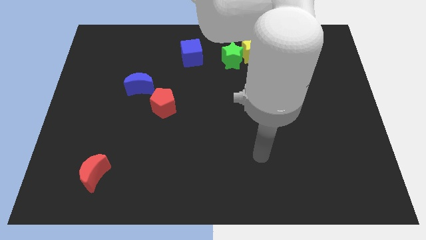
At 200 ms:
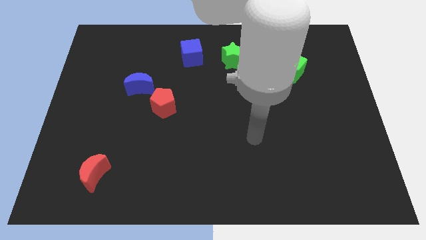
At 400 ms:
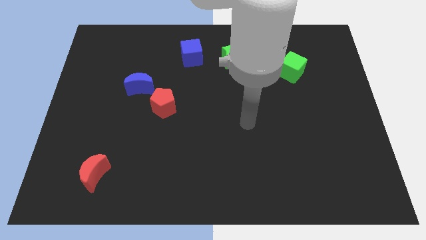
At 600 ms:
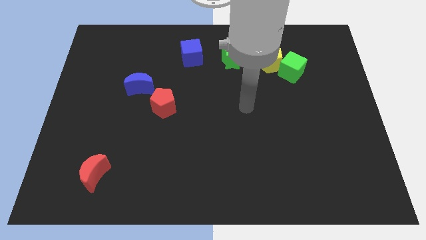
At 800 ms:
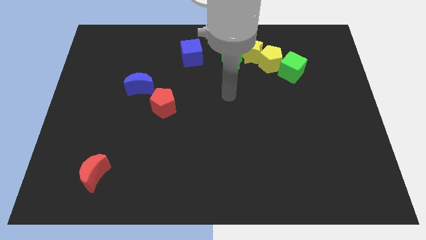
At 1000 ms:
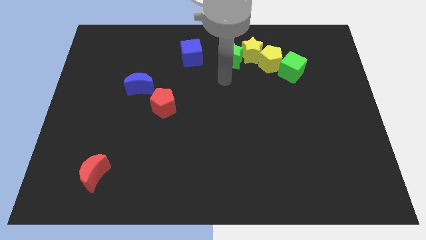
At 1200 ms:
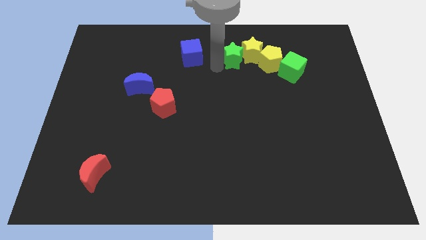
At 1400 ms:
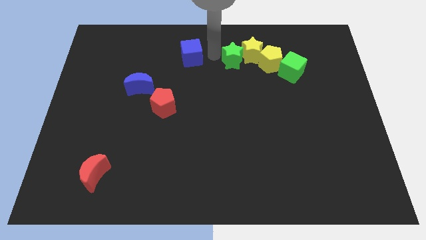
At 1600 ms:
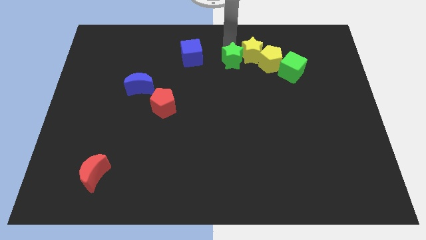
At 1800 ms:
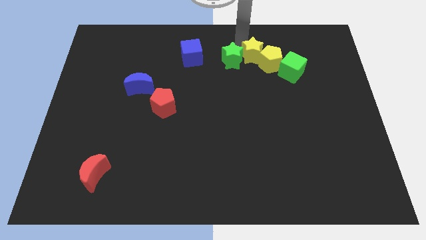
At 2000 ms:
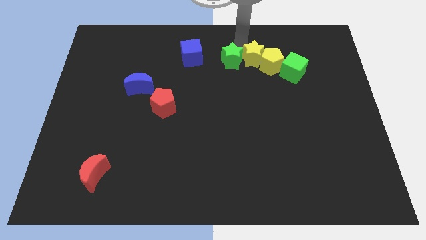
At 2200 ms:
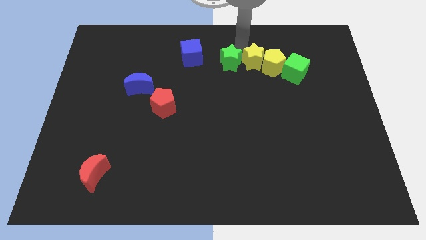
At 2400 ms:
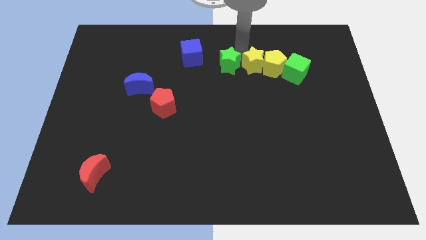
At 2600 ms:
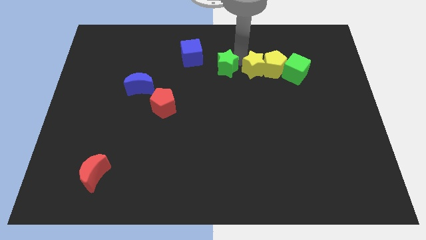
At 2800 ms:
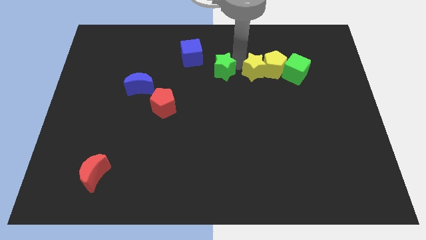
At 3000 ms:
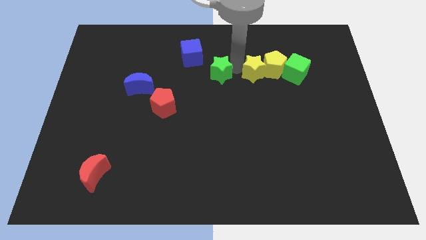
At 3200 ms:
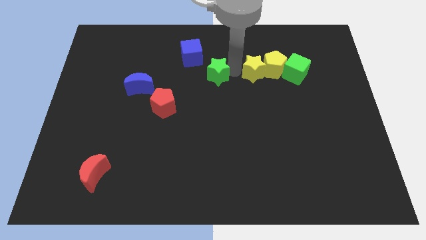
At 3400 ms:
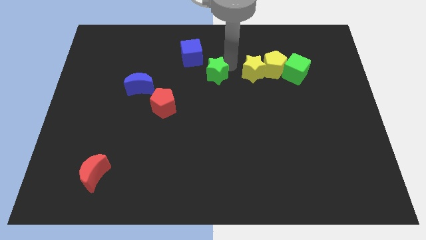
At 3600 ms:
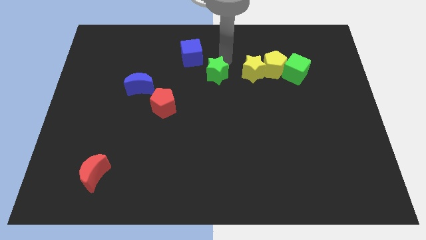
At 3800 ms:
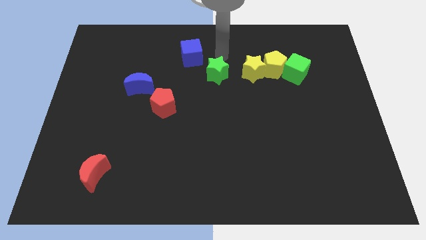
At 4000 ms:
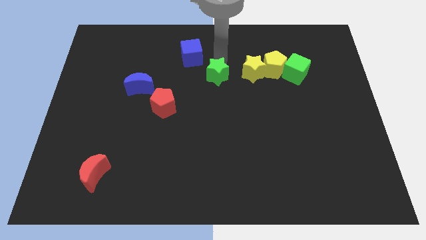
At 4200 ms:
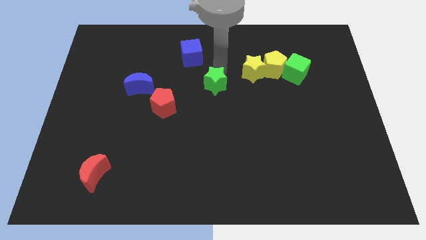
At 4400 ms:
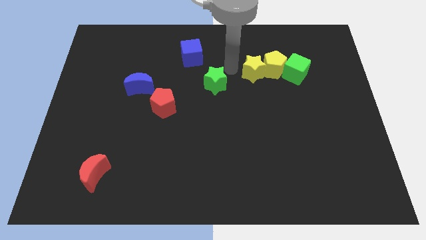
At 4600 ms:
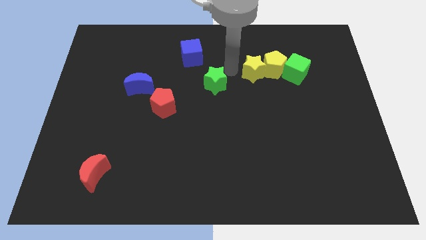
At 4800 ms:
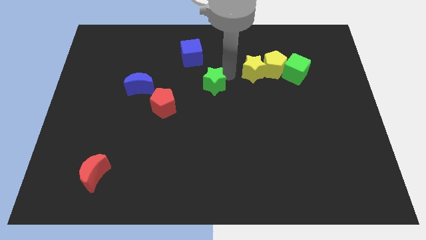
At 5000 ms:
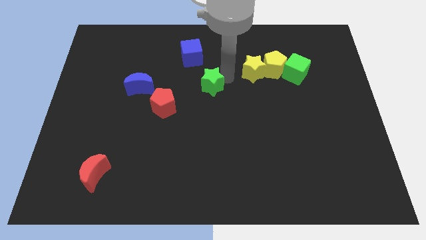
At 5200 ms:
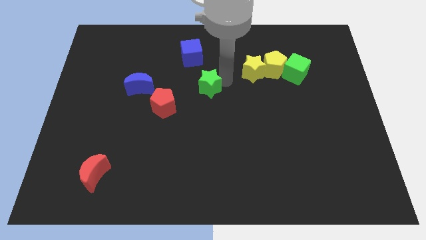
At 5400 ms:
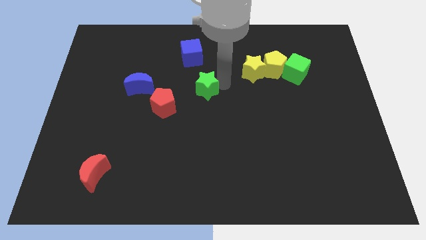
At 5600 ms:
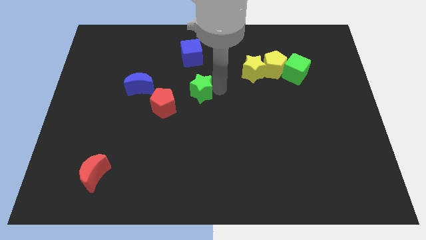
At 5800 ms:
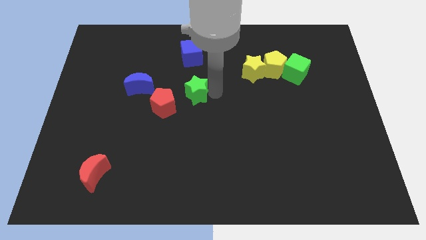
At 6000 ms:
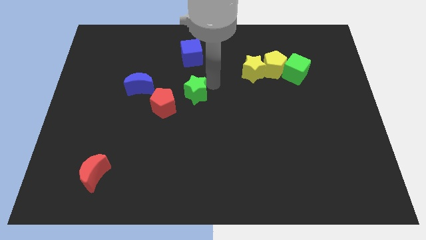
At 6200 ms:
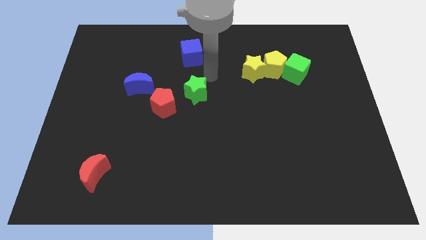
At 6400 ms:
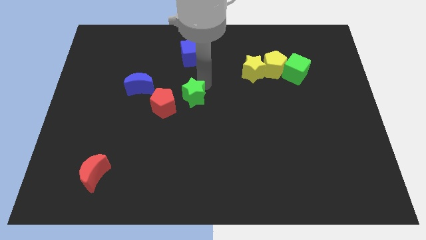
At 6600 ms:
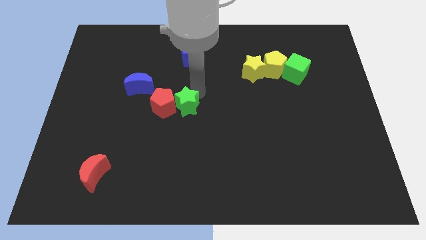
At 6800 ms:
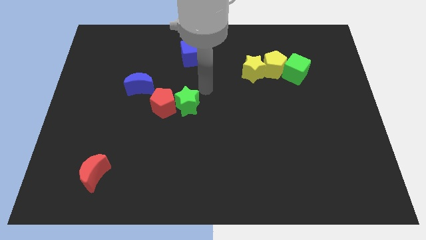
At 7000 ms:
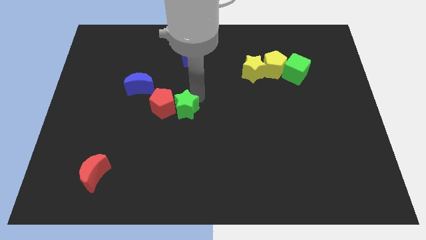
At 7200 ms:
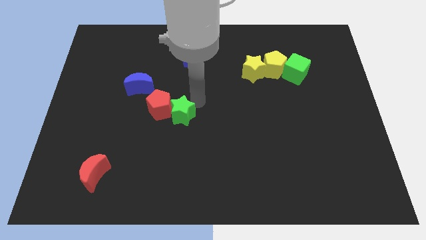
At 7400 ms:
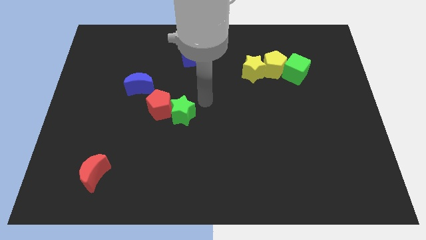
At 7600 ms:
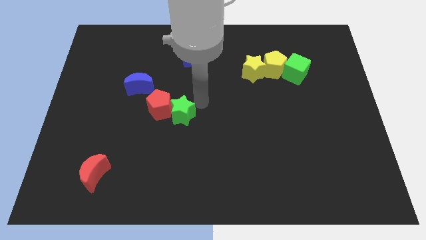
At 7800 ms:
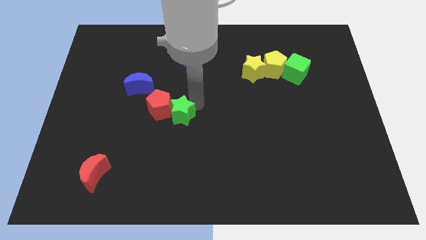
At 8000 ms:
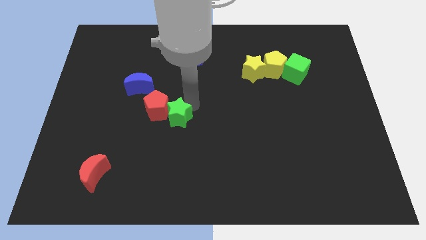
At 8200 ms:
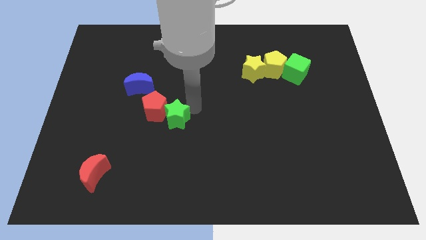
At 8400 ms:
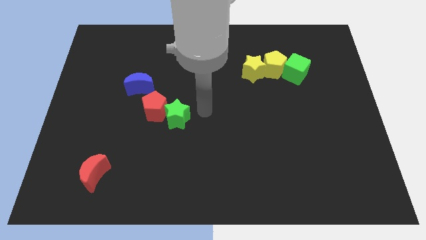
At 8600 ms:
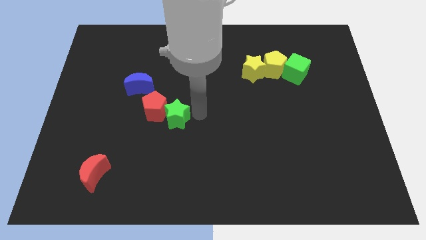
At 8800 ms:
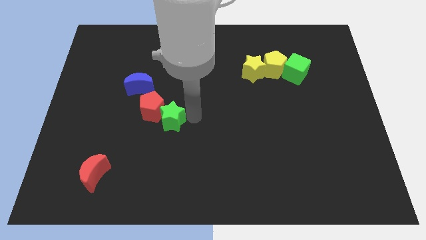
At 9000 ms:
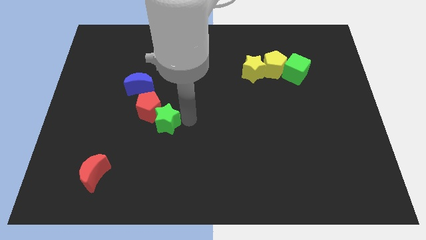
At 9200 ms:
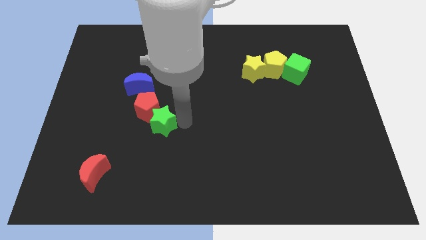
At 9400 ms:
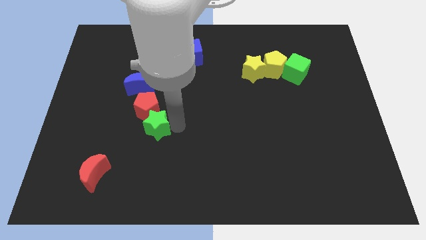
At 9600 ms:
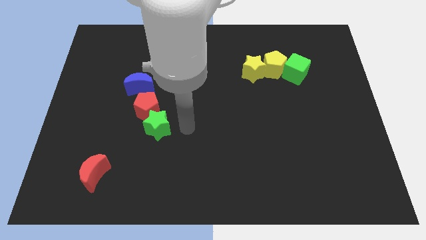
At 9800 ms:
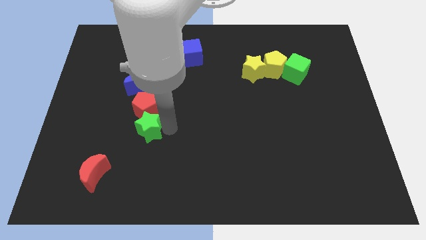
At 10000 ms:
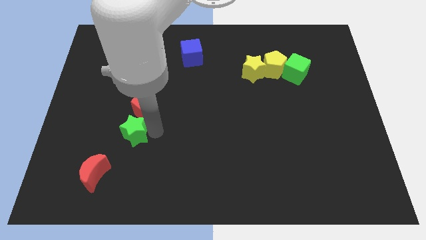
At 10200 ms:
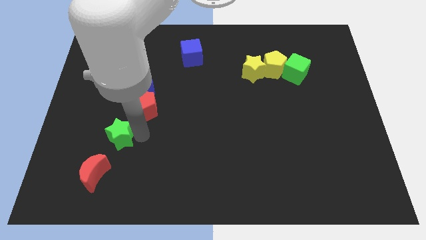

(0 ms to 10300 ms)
push the green star to the top side of the red moon

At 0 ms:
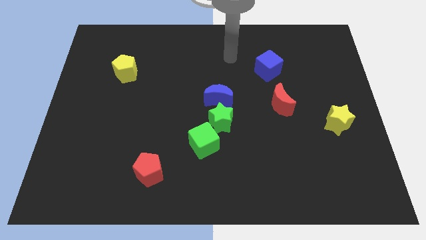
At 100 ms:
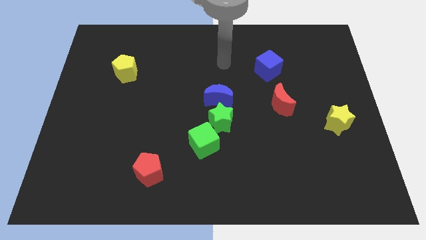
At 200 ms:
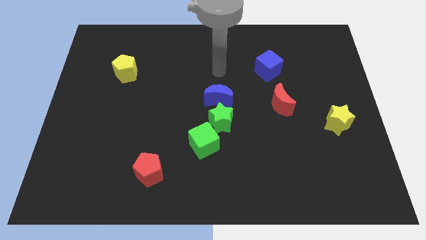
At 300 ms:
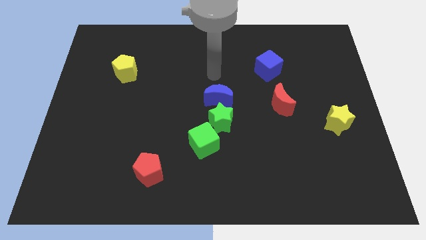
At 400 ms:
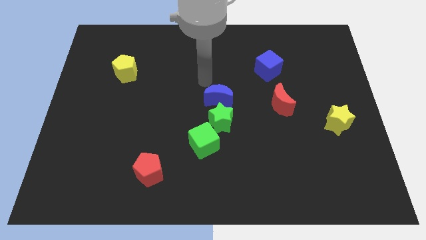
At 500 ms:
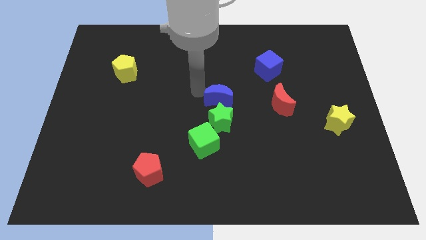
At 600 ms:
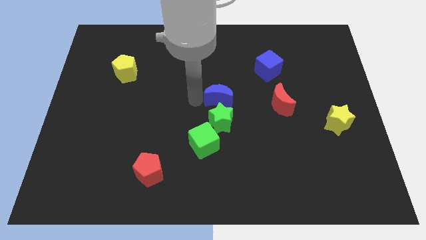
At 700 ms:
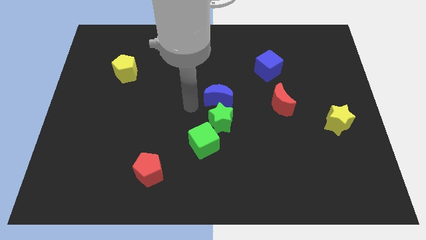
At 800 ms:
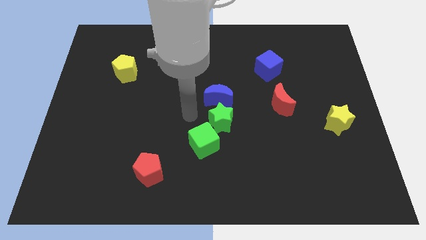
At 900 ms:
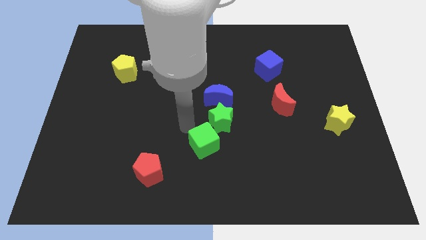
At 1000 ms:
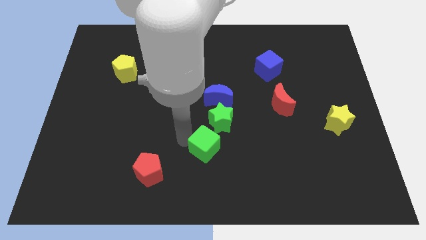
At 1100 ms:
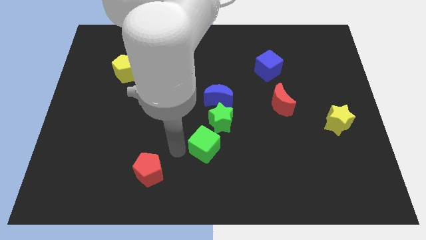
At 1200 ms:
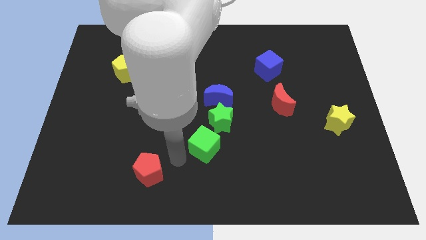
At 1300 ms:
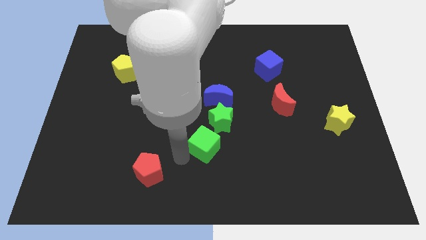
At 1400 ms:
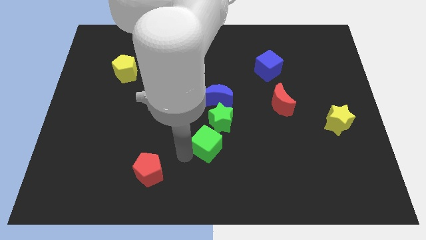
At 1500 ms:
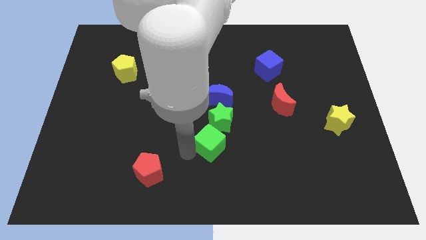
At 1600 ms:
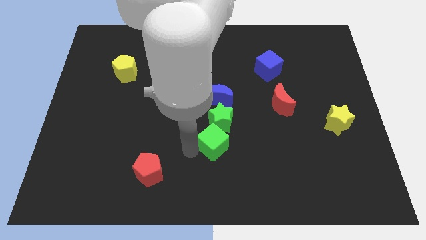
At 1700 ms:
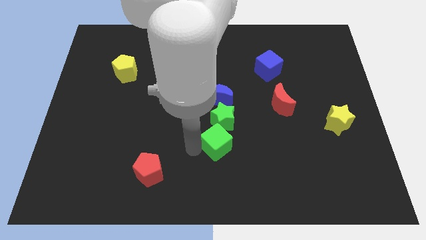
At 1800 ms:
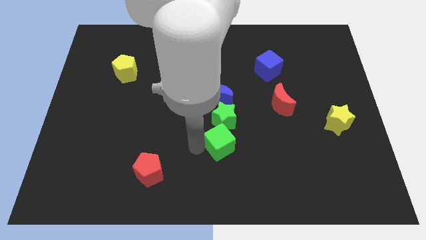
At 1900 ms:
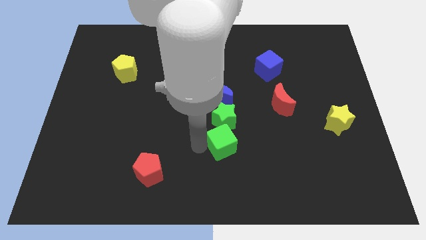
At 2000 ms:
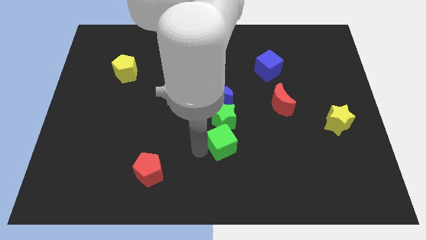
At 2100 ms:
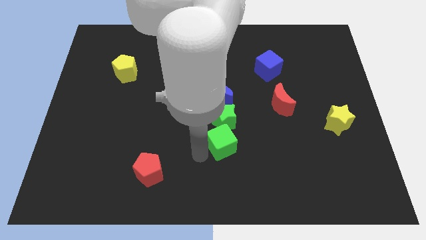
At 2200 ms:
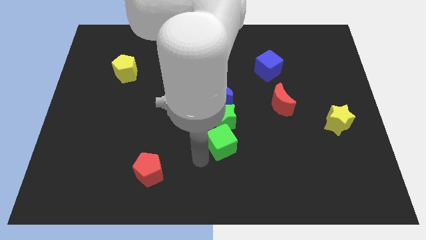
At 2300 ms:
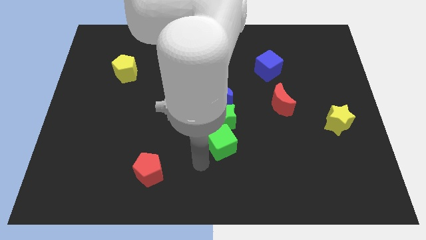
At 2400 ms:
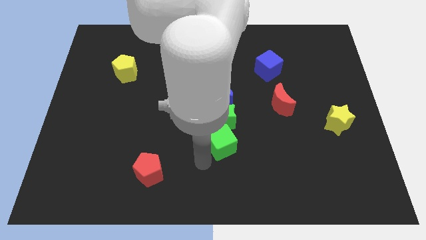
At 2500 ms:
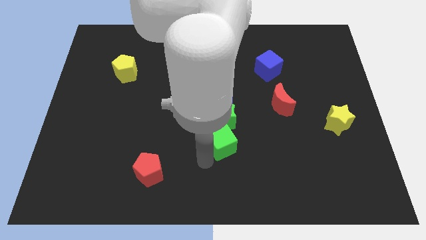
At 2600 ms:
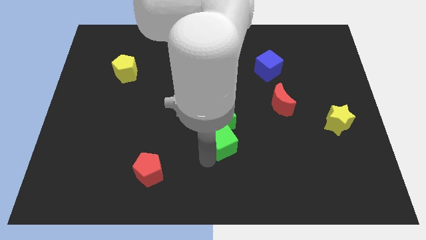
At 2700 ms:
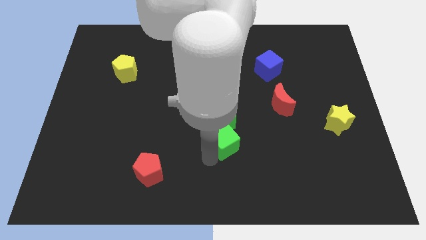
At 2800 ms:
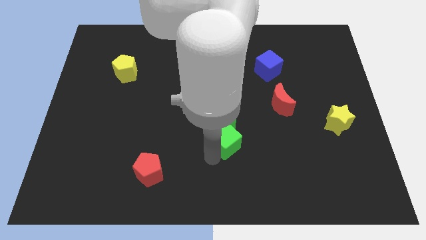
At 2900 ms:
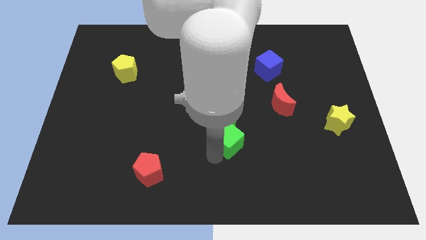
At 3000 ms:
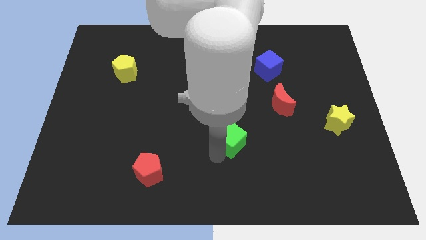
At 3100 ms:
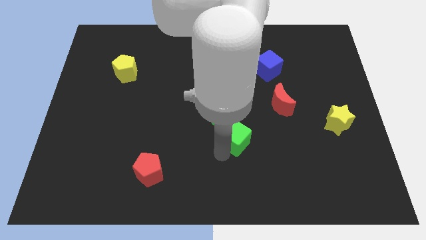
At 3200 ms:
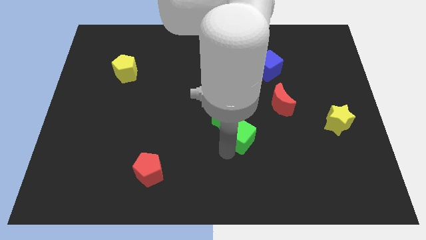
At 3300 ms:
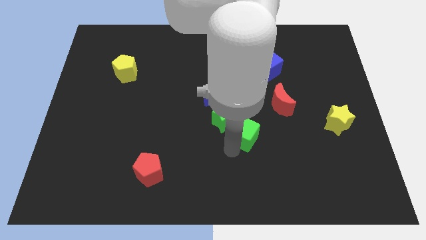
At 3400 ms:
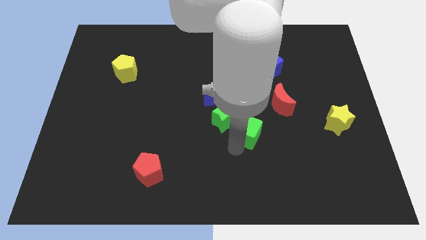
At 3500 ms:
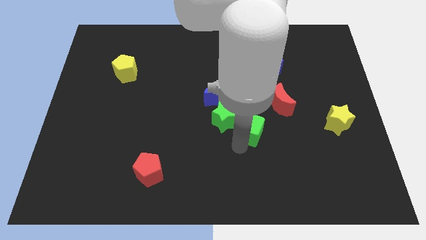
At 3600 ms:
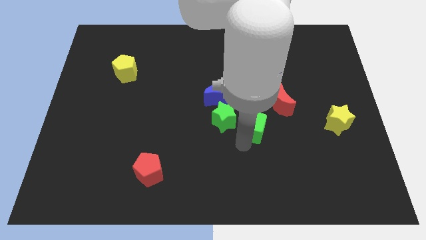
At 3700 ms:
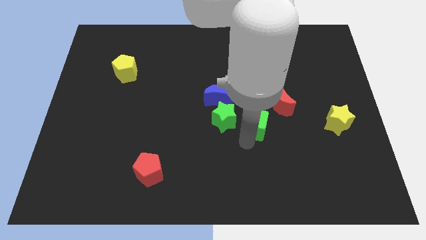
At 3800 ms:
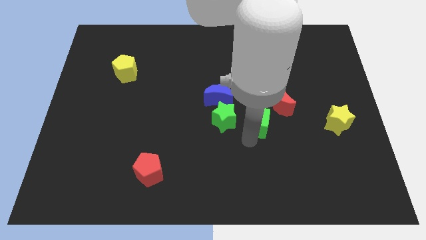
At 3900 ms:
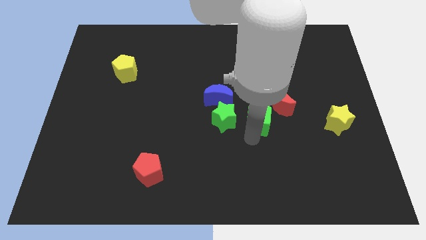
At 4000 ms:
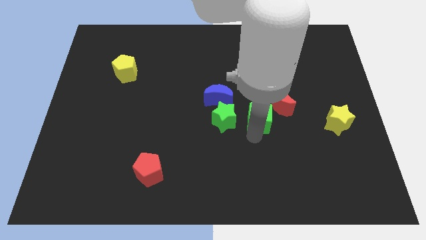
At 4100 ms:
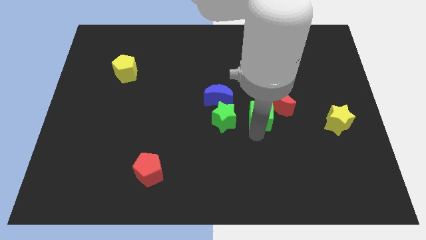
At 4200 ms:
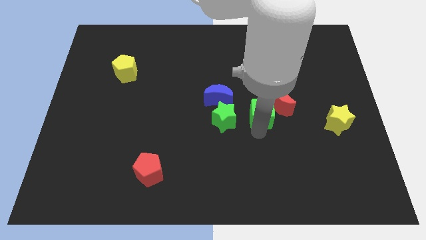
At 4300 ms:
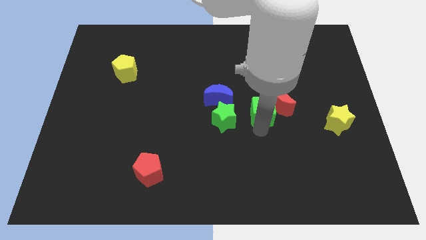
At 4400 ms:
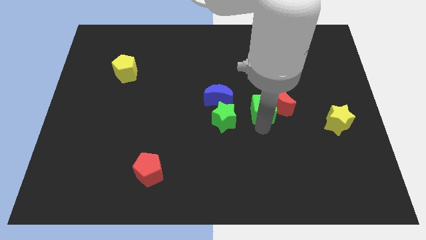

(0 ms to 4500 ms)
put the green cube to the top right side of the green star
